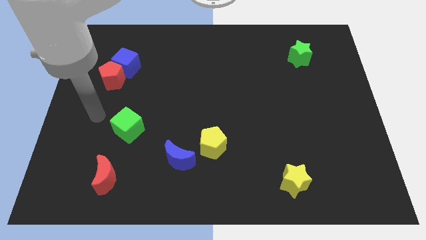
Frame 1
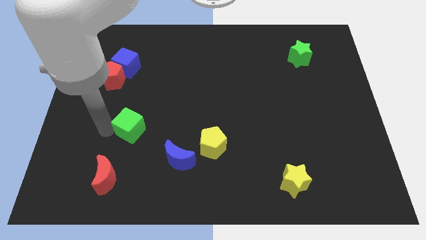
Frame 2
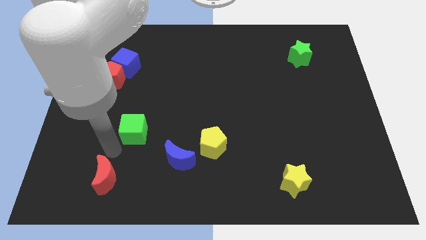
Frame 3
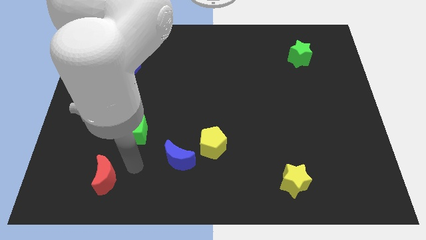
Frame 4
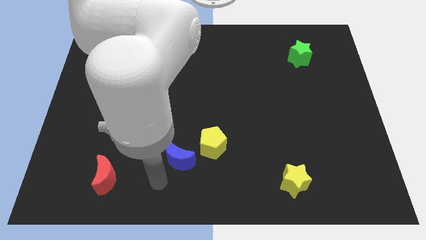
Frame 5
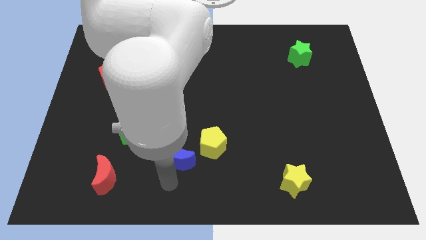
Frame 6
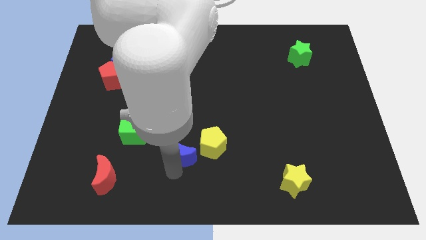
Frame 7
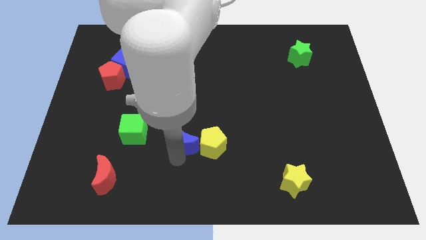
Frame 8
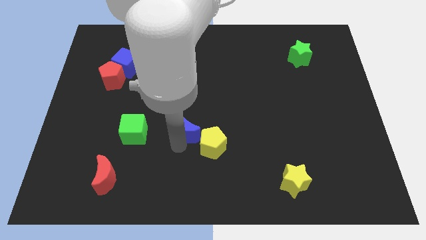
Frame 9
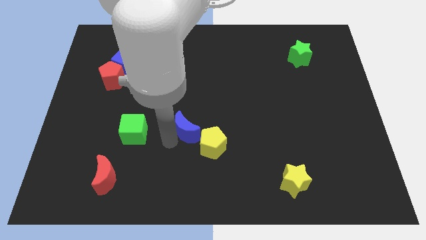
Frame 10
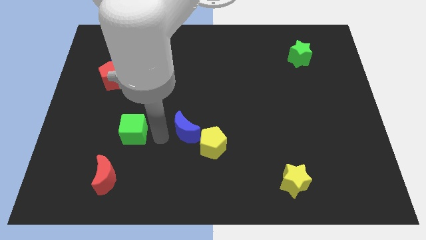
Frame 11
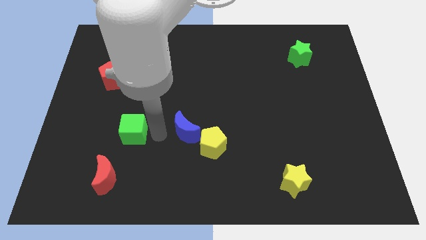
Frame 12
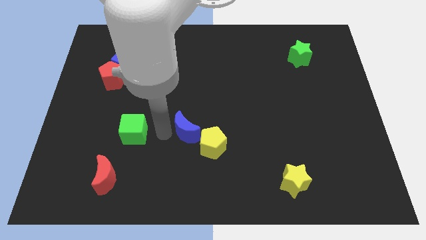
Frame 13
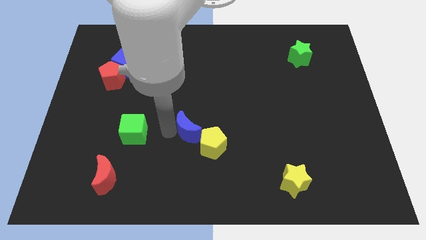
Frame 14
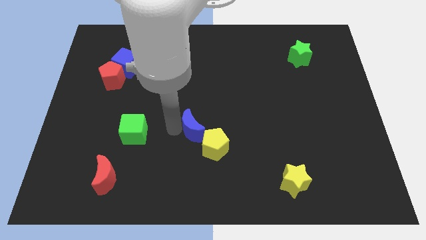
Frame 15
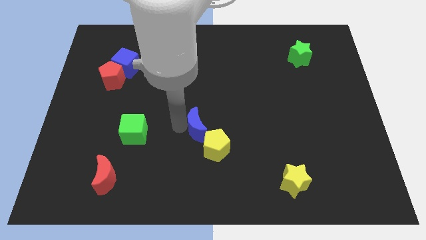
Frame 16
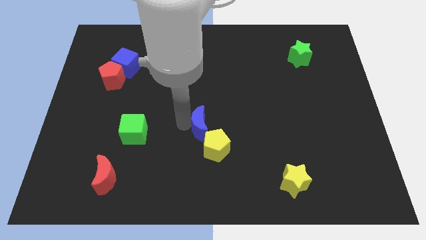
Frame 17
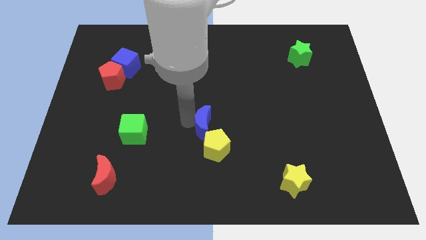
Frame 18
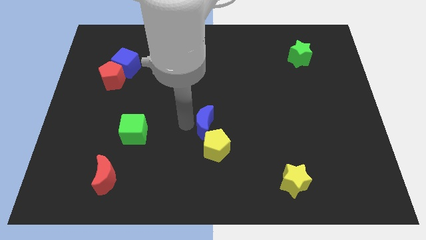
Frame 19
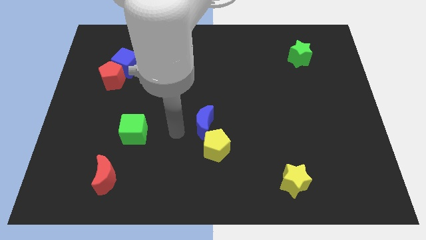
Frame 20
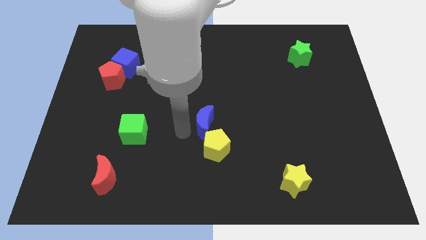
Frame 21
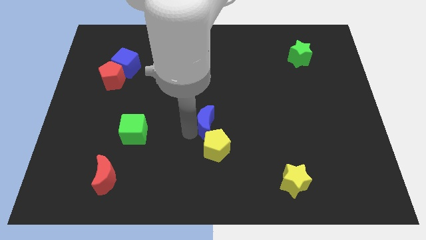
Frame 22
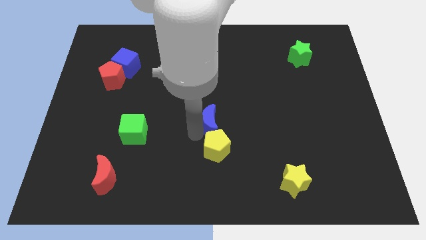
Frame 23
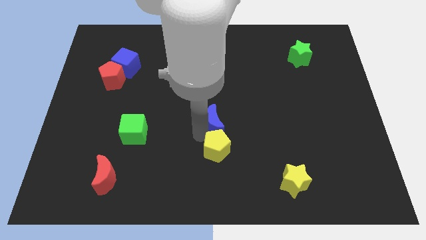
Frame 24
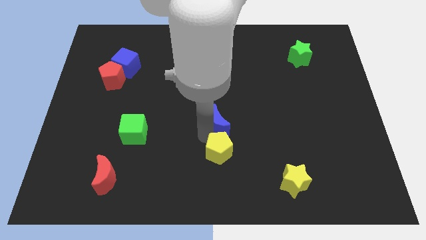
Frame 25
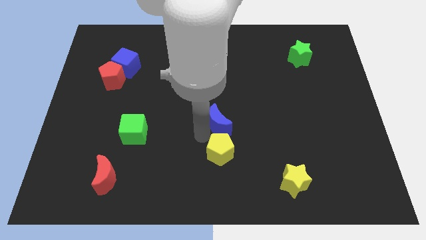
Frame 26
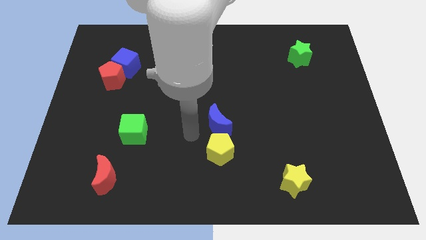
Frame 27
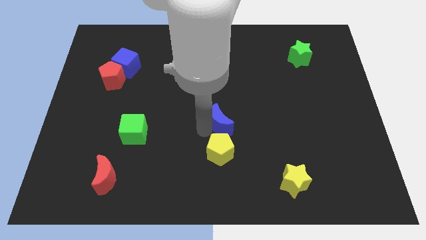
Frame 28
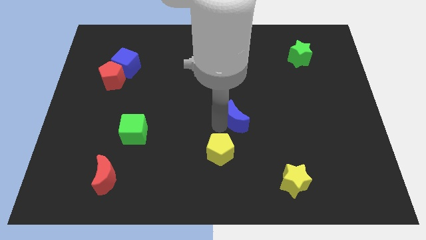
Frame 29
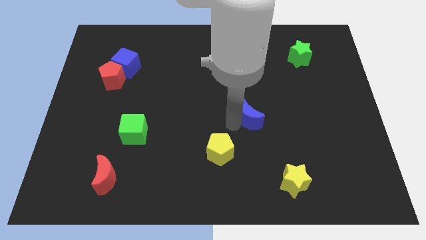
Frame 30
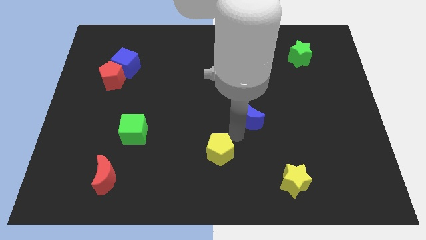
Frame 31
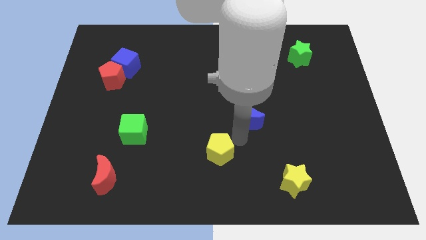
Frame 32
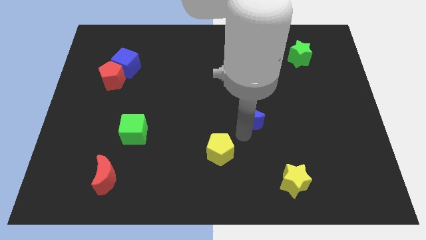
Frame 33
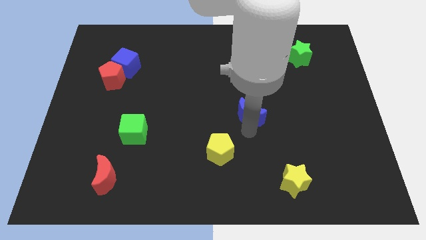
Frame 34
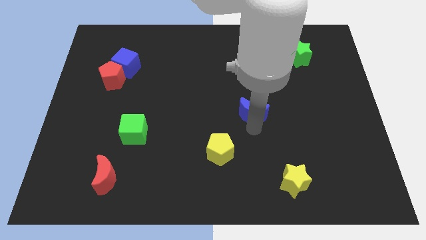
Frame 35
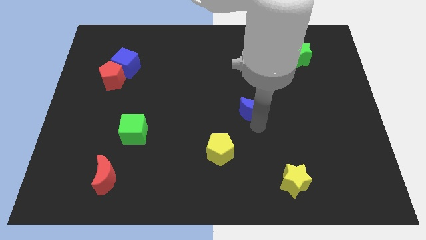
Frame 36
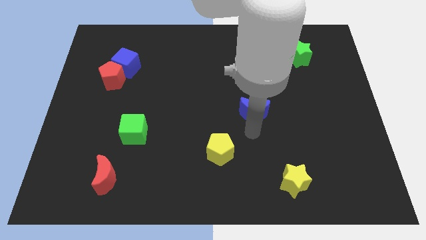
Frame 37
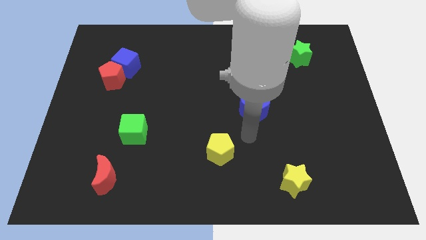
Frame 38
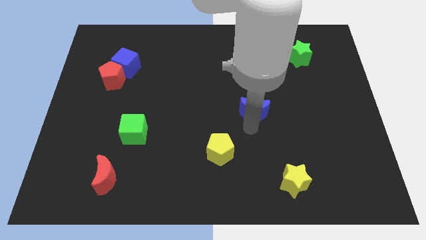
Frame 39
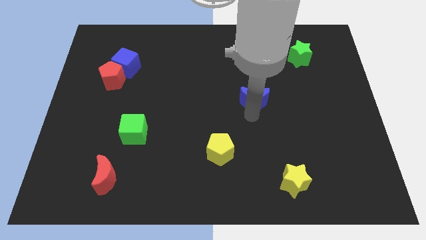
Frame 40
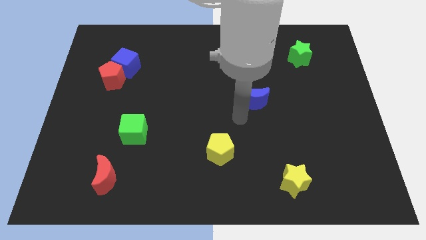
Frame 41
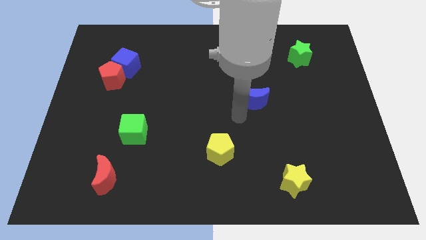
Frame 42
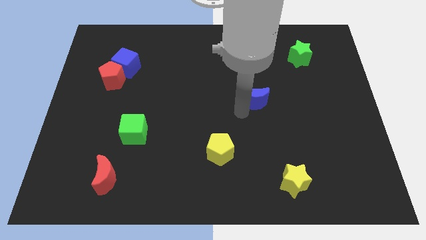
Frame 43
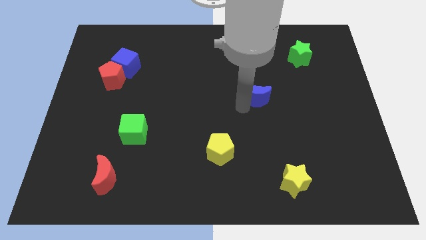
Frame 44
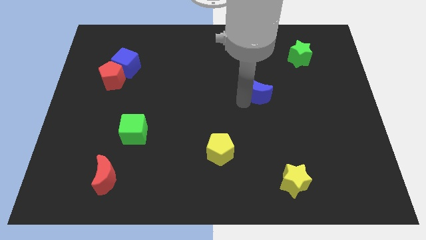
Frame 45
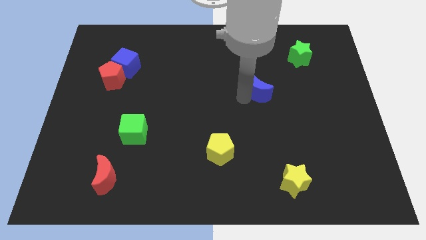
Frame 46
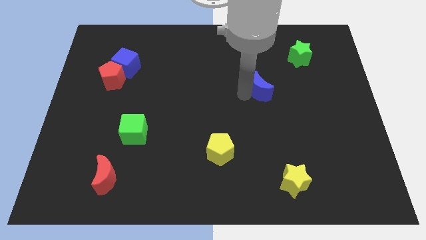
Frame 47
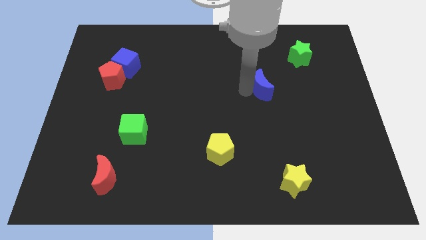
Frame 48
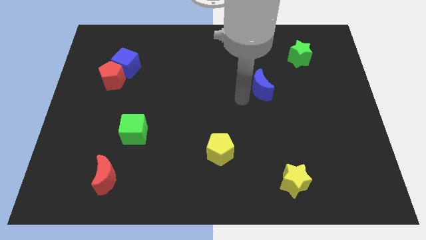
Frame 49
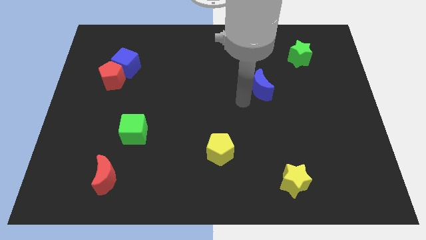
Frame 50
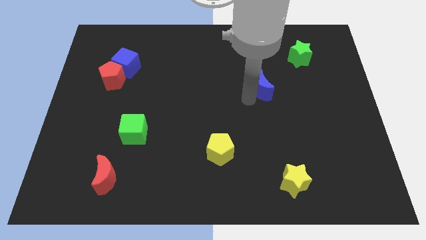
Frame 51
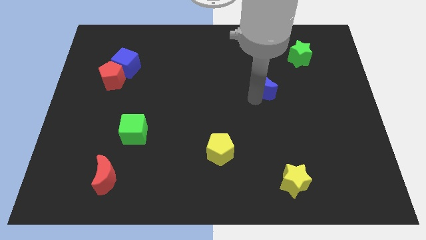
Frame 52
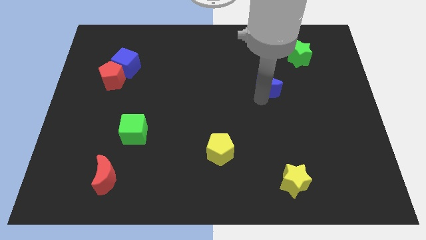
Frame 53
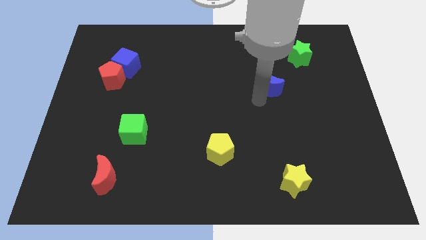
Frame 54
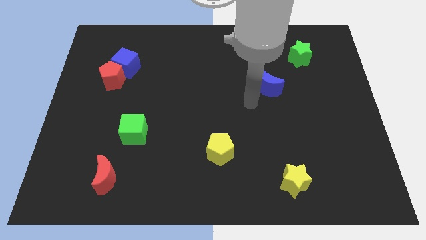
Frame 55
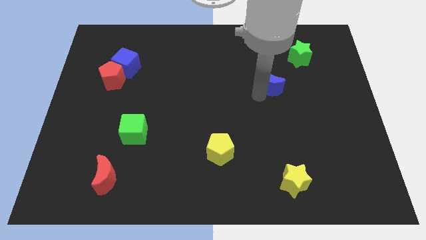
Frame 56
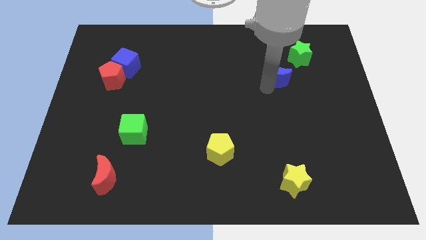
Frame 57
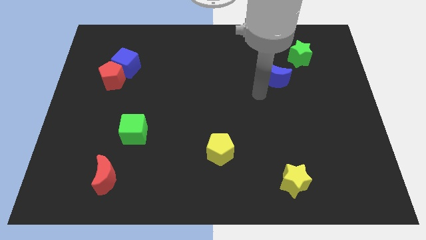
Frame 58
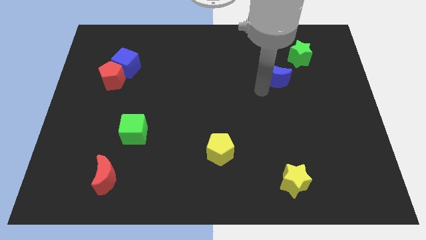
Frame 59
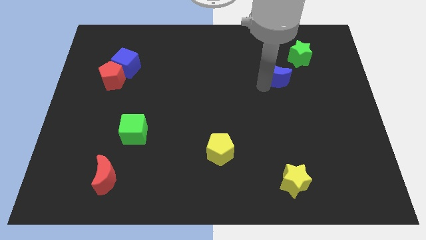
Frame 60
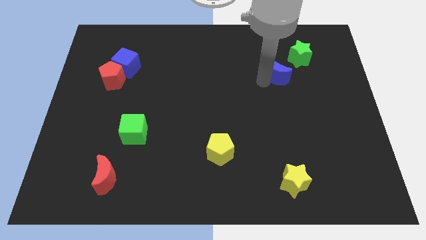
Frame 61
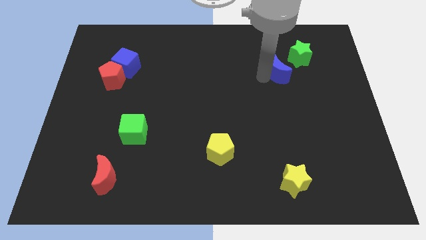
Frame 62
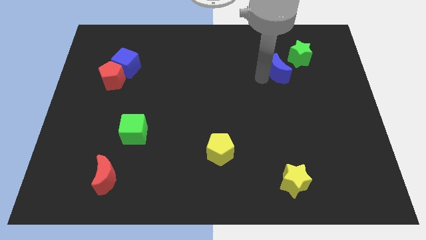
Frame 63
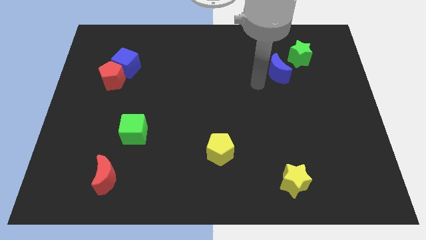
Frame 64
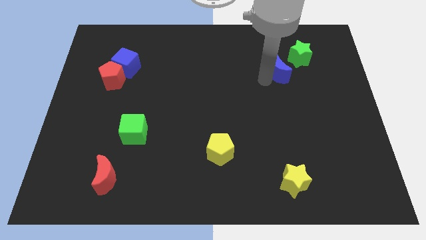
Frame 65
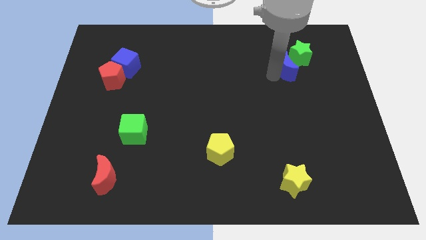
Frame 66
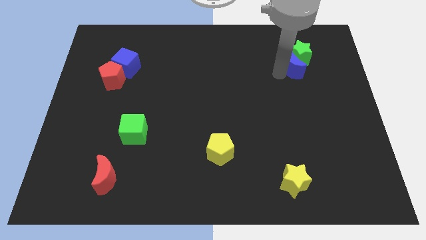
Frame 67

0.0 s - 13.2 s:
slide the blue moon close to the green star
